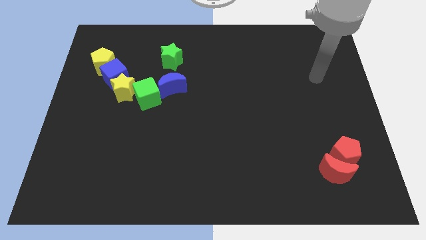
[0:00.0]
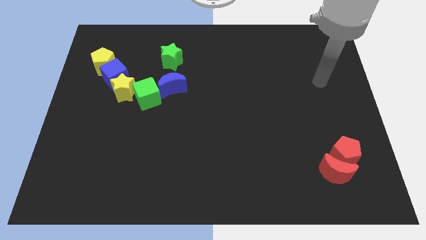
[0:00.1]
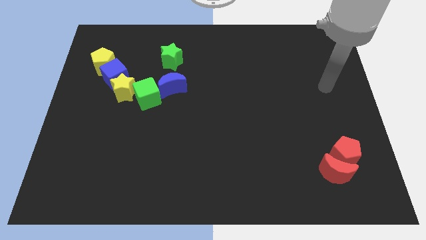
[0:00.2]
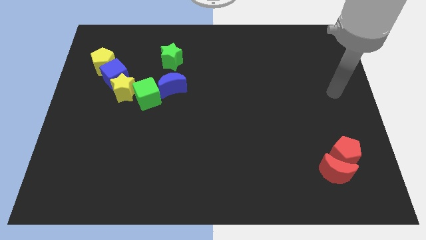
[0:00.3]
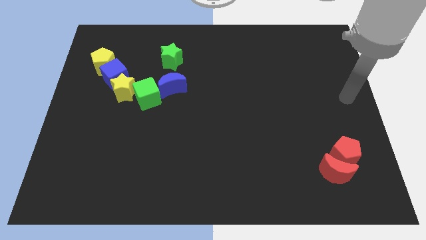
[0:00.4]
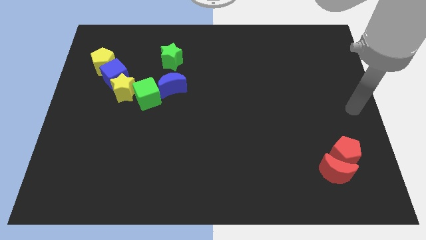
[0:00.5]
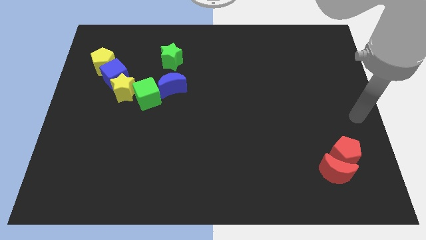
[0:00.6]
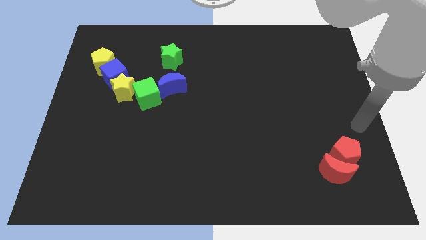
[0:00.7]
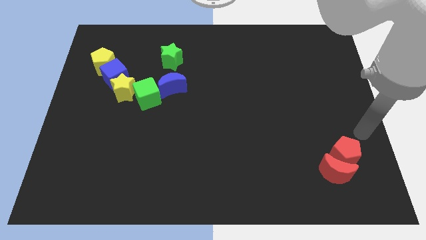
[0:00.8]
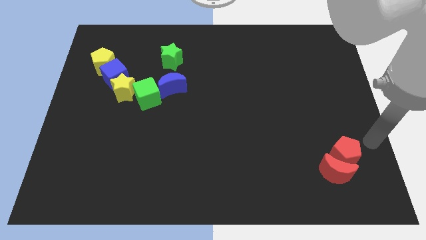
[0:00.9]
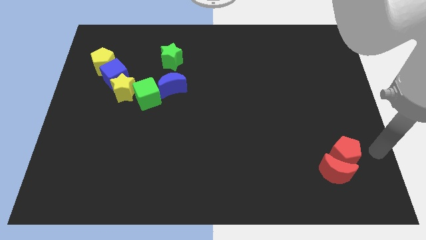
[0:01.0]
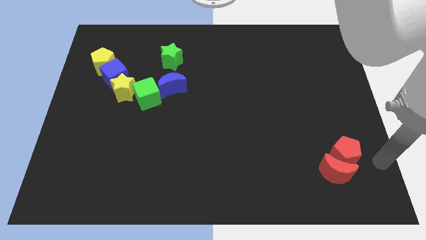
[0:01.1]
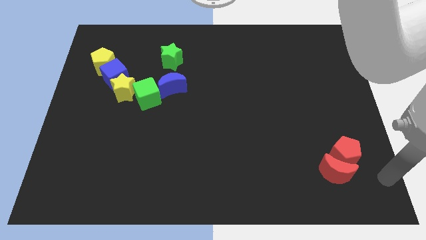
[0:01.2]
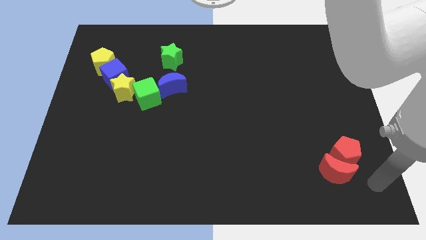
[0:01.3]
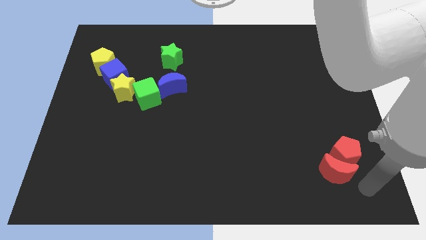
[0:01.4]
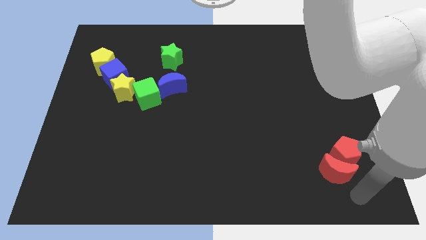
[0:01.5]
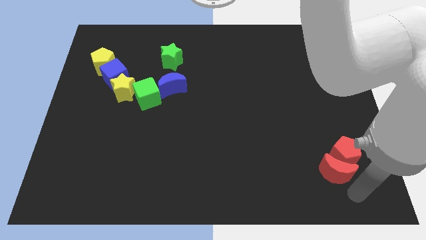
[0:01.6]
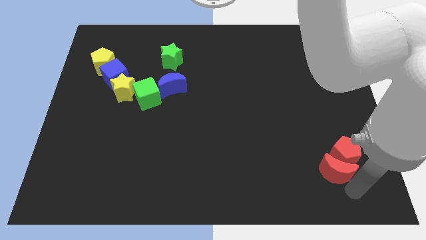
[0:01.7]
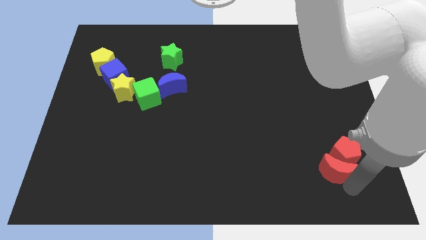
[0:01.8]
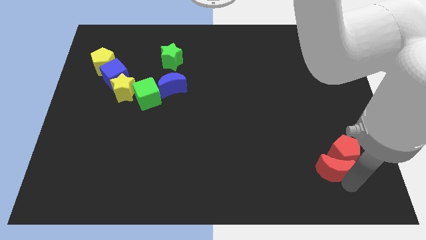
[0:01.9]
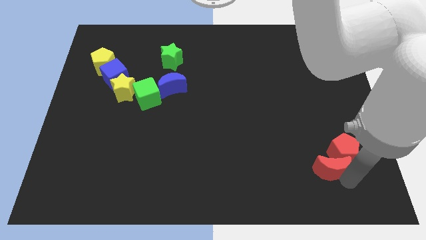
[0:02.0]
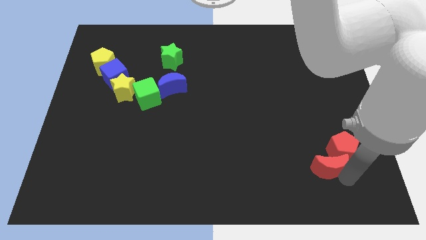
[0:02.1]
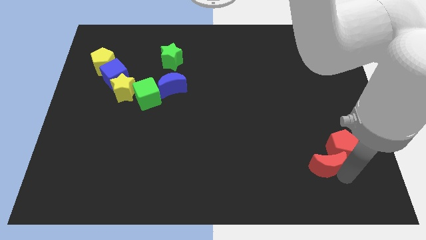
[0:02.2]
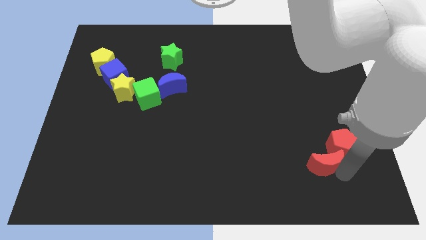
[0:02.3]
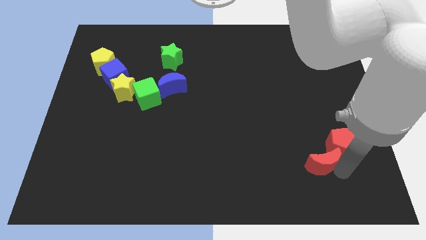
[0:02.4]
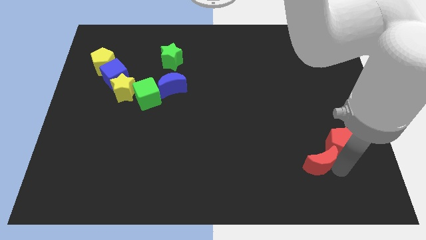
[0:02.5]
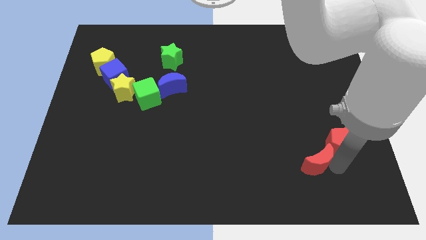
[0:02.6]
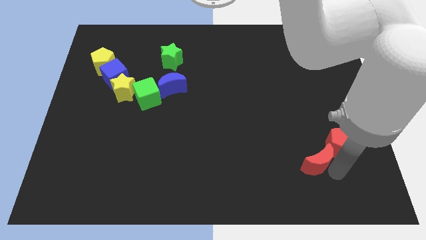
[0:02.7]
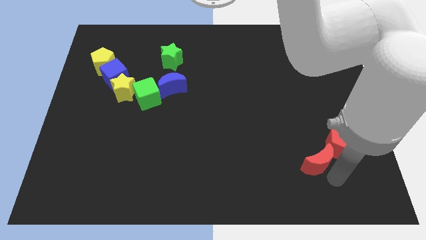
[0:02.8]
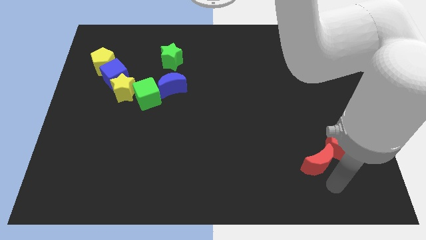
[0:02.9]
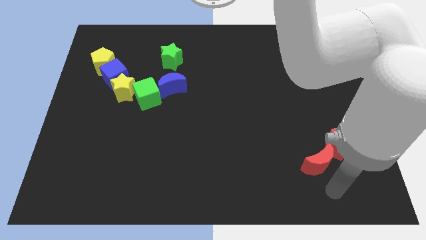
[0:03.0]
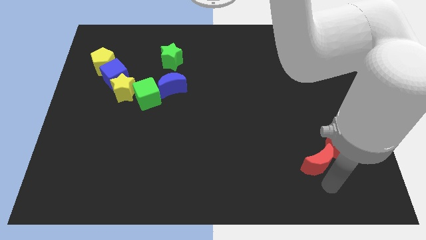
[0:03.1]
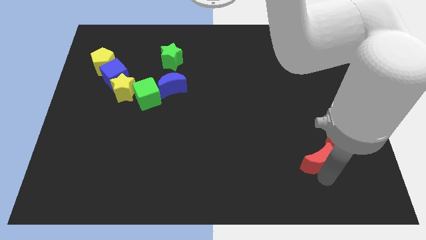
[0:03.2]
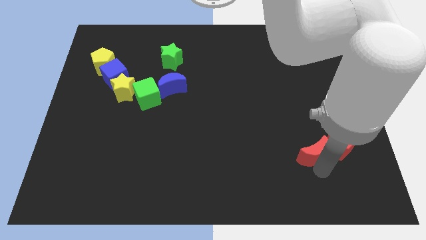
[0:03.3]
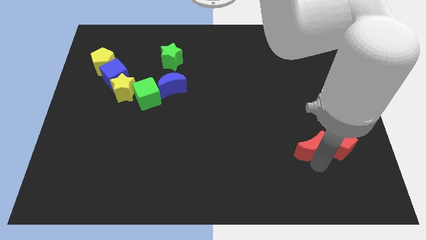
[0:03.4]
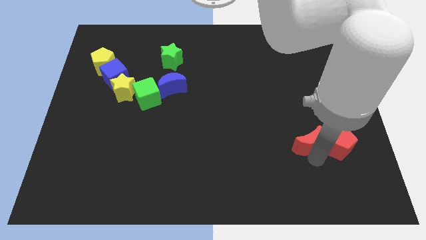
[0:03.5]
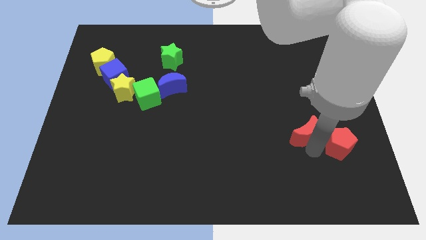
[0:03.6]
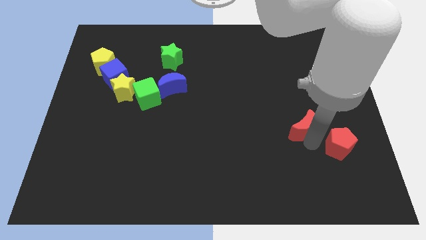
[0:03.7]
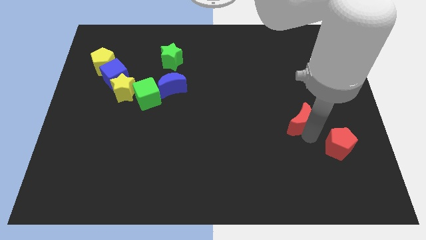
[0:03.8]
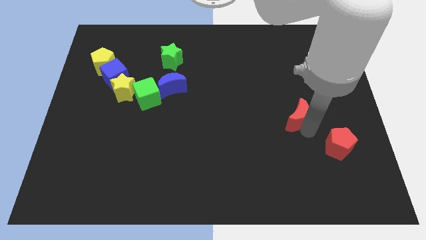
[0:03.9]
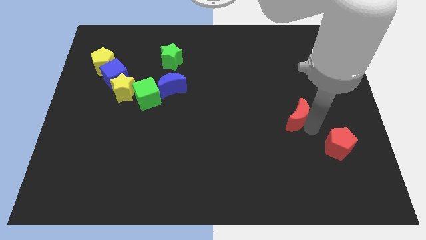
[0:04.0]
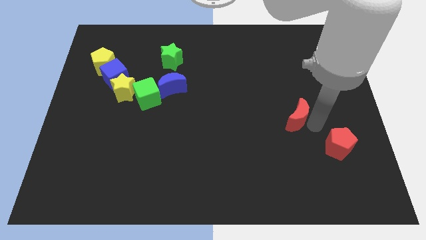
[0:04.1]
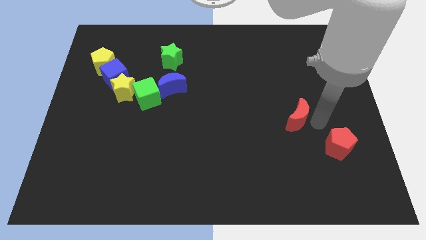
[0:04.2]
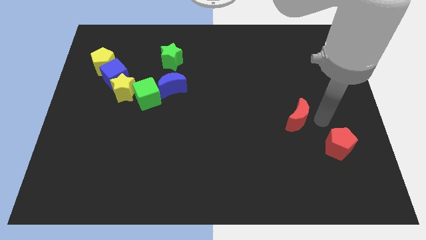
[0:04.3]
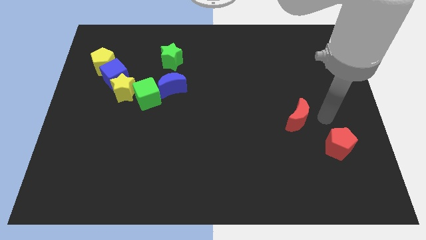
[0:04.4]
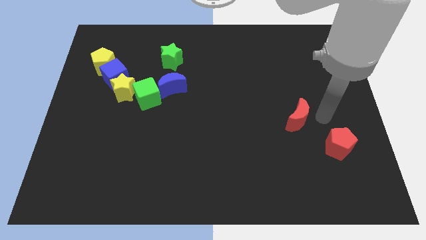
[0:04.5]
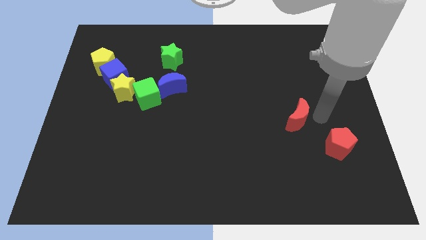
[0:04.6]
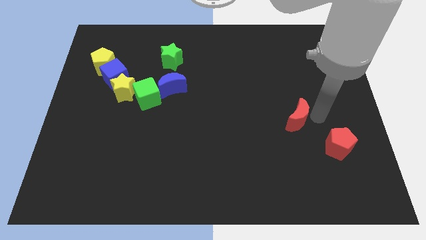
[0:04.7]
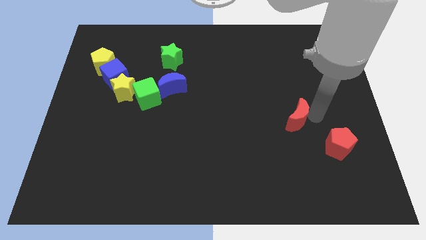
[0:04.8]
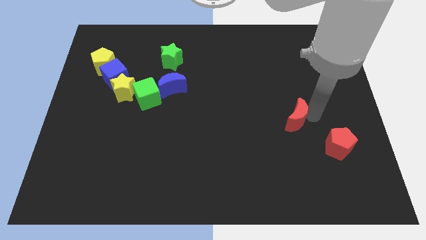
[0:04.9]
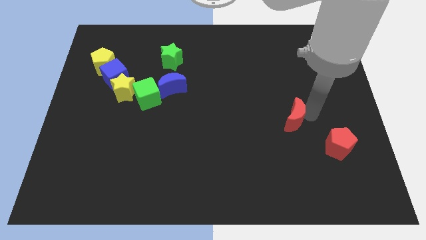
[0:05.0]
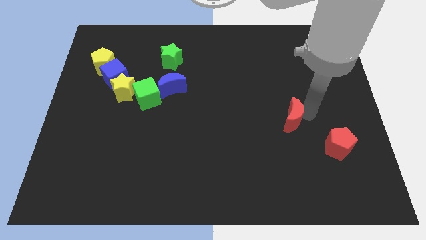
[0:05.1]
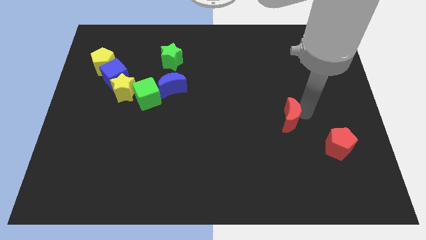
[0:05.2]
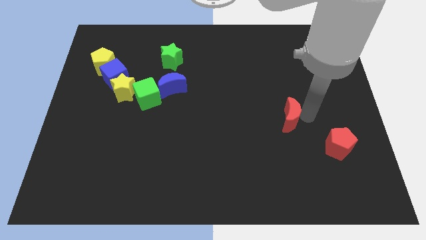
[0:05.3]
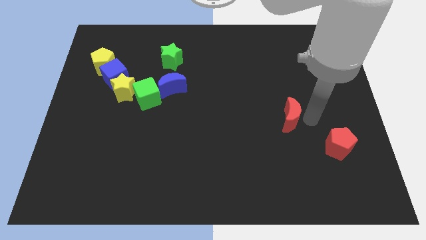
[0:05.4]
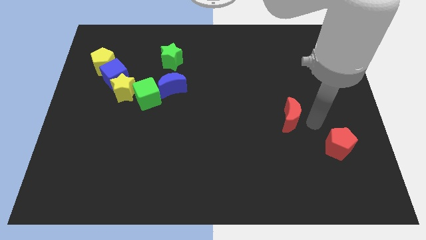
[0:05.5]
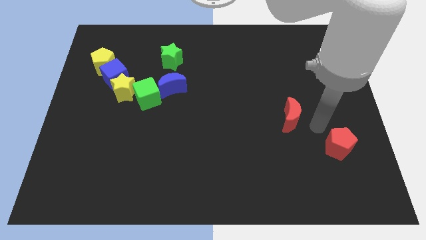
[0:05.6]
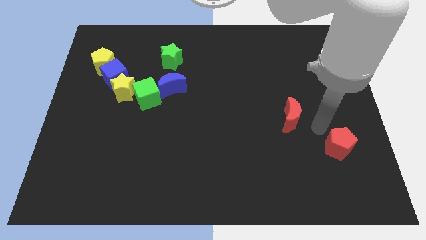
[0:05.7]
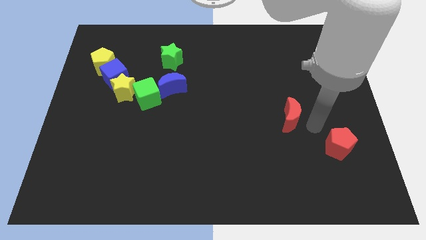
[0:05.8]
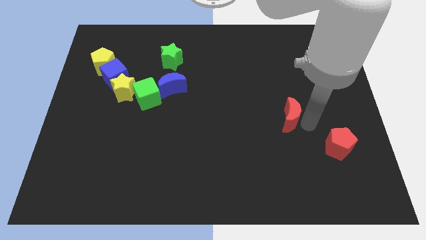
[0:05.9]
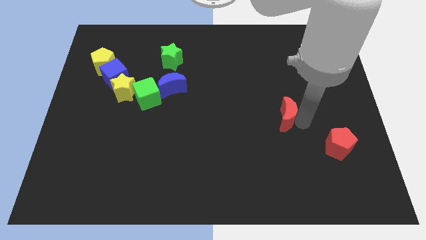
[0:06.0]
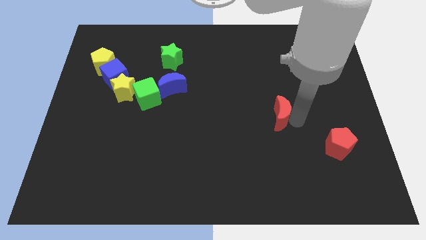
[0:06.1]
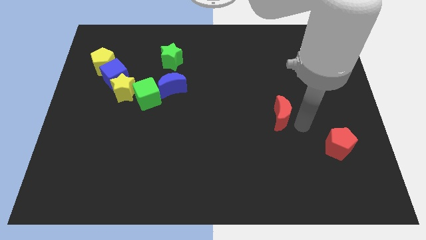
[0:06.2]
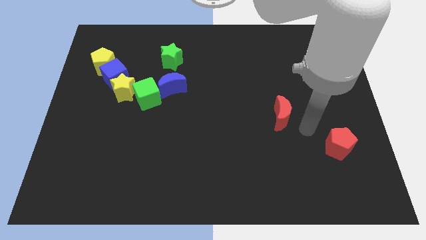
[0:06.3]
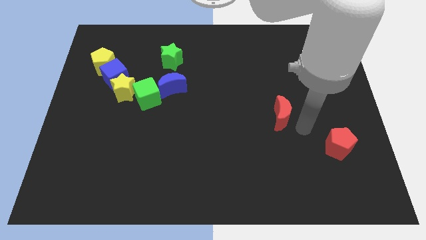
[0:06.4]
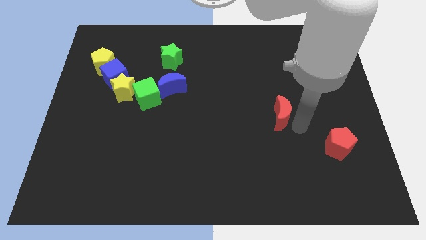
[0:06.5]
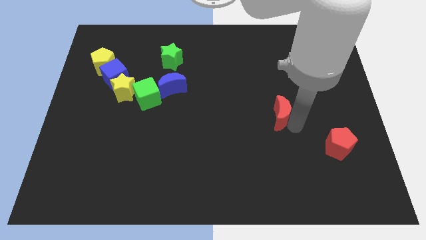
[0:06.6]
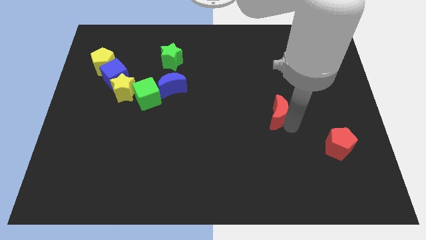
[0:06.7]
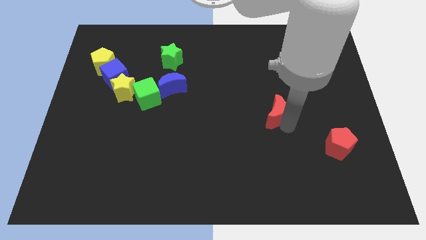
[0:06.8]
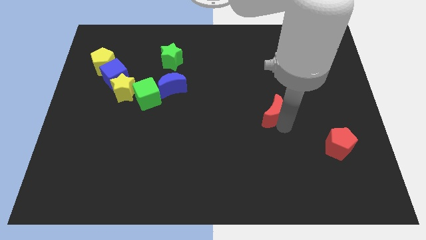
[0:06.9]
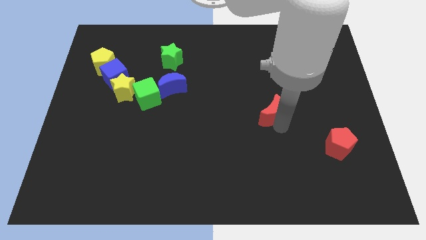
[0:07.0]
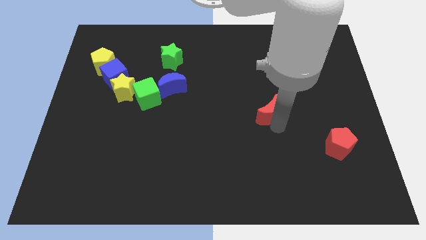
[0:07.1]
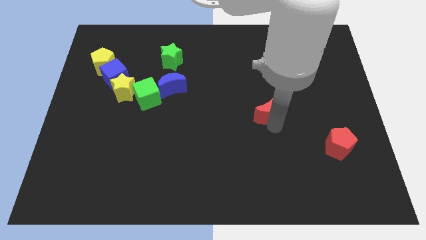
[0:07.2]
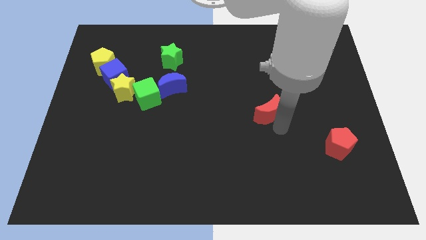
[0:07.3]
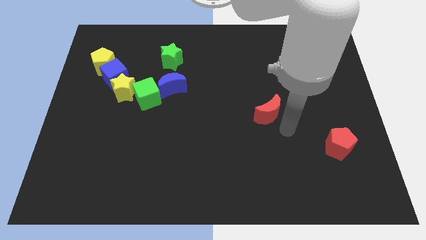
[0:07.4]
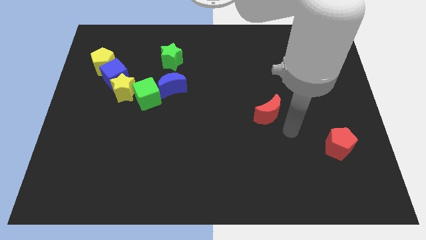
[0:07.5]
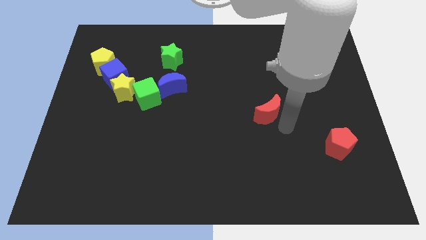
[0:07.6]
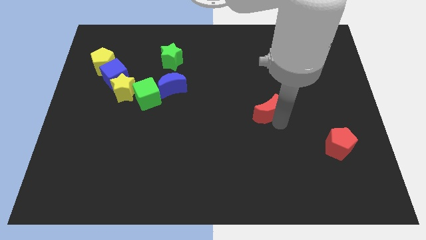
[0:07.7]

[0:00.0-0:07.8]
slide the red moon up and left diagonally
